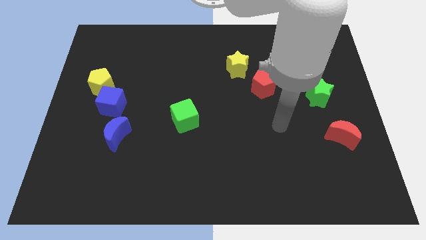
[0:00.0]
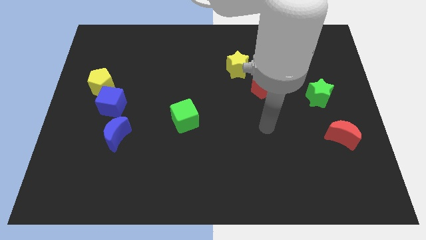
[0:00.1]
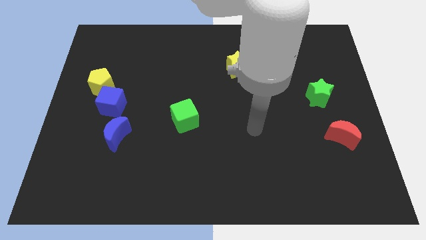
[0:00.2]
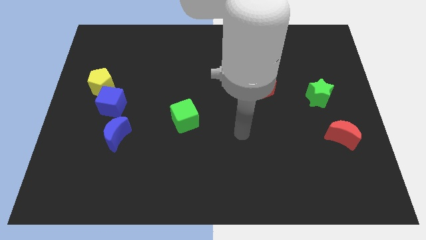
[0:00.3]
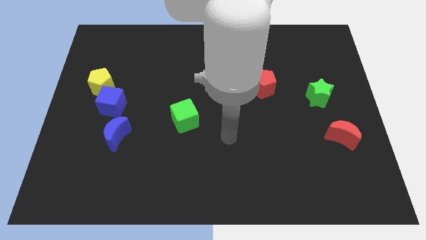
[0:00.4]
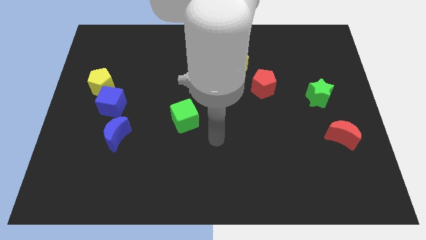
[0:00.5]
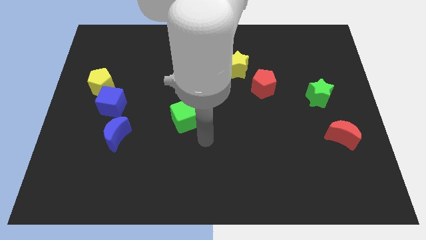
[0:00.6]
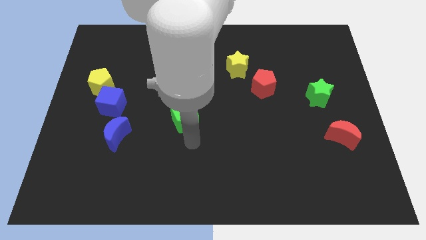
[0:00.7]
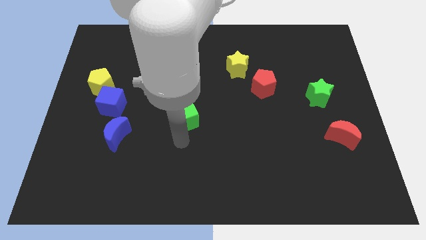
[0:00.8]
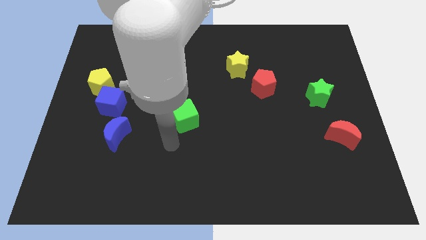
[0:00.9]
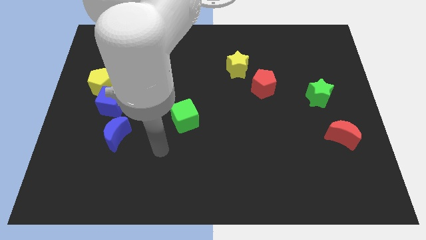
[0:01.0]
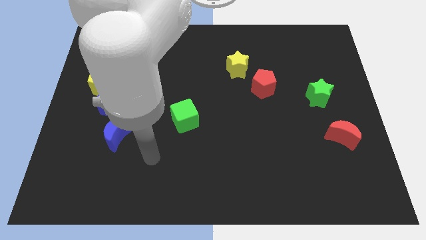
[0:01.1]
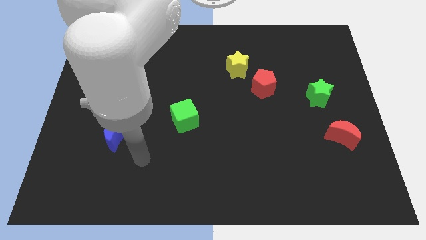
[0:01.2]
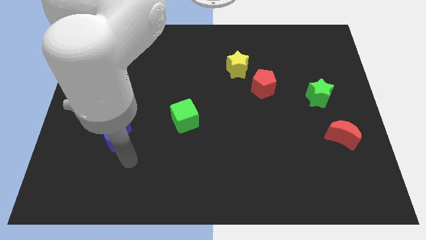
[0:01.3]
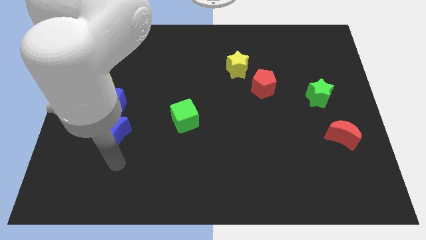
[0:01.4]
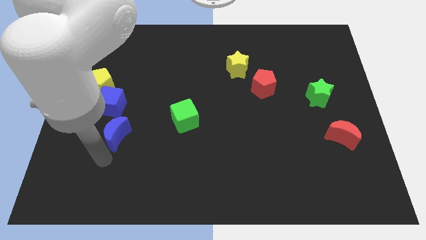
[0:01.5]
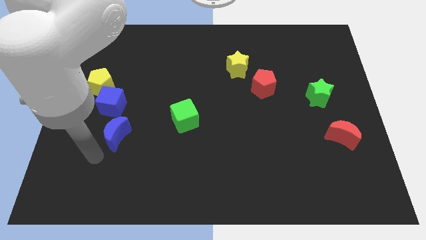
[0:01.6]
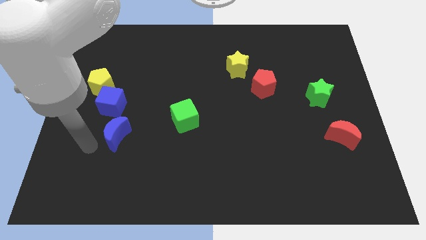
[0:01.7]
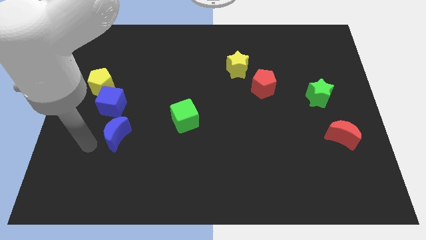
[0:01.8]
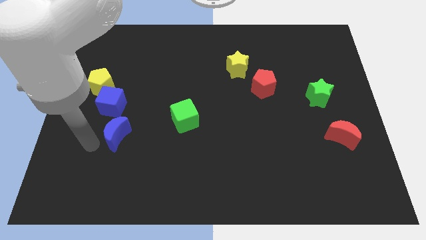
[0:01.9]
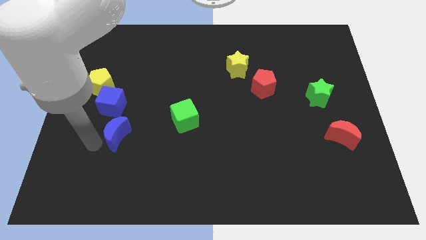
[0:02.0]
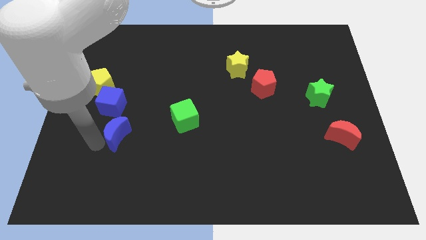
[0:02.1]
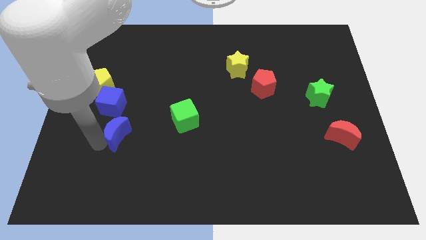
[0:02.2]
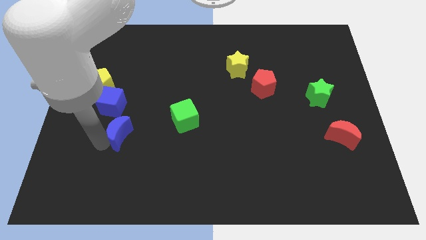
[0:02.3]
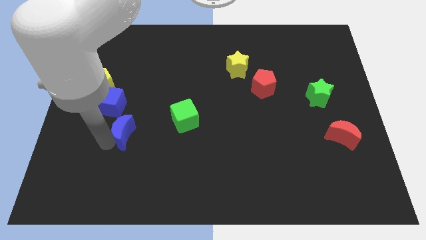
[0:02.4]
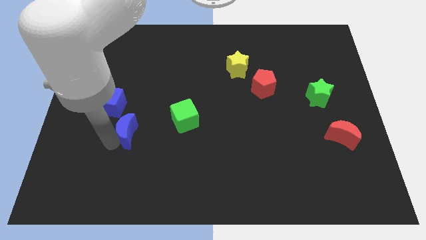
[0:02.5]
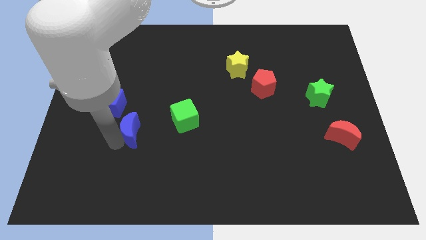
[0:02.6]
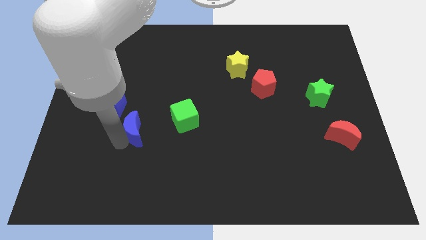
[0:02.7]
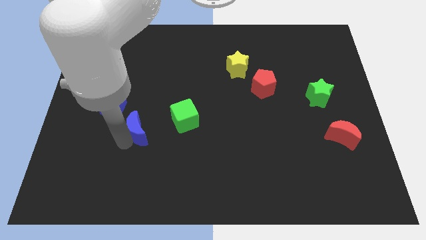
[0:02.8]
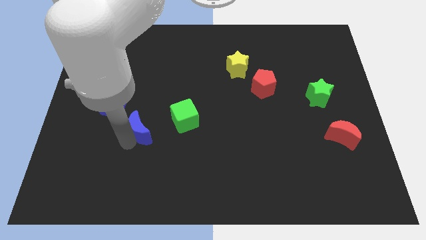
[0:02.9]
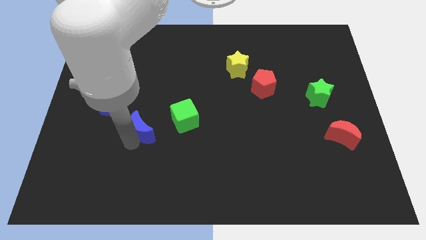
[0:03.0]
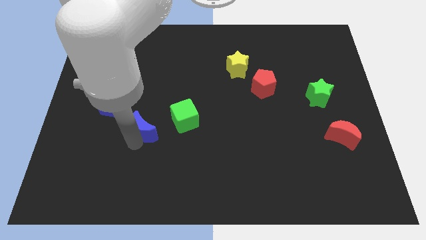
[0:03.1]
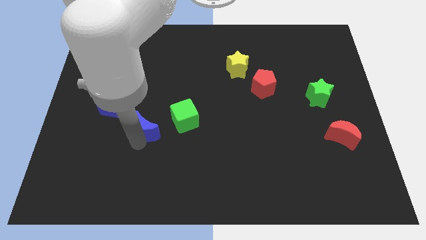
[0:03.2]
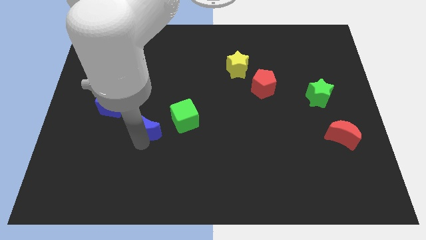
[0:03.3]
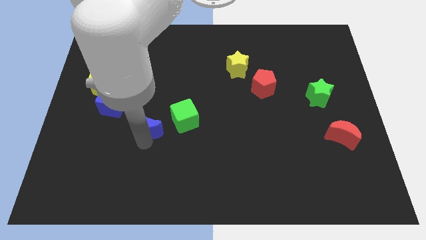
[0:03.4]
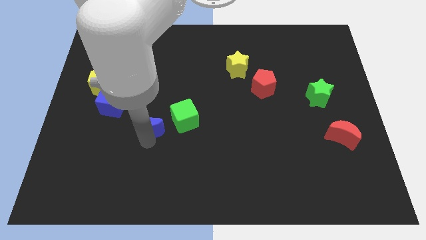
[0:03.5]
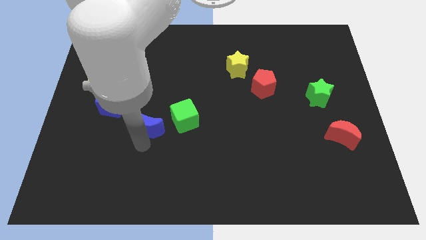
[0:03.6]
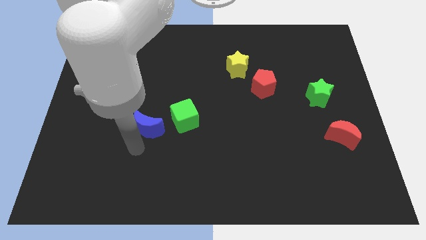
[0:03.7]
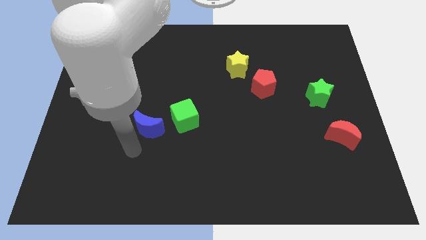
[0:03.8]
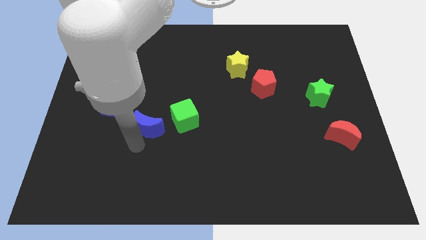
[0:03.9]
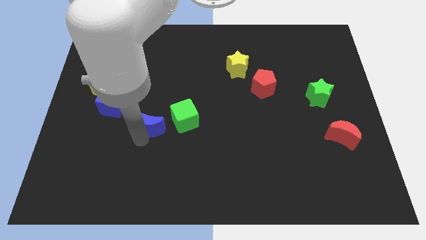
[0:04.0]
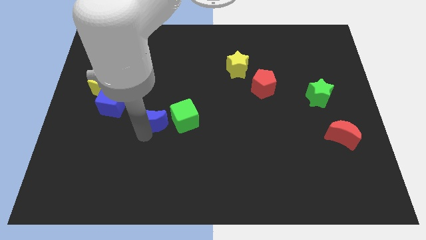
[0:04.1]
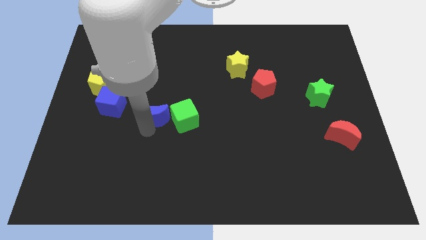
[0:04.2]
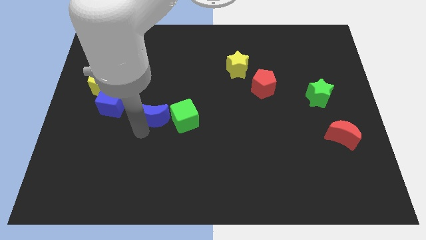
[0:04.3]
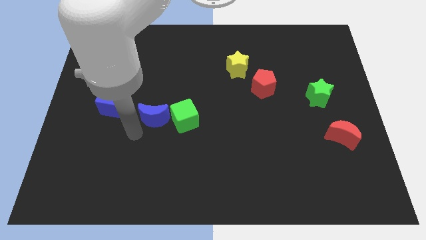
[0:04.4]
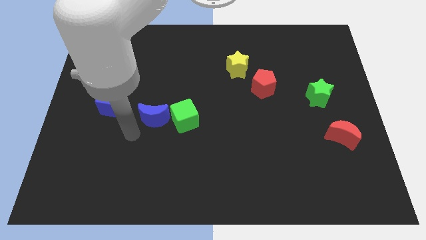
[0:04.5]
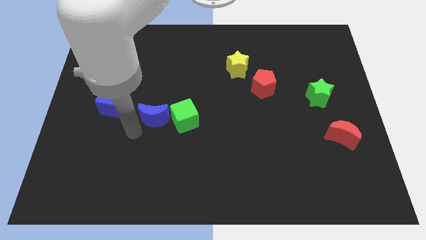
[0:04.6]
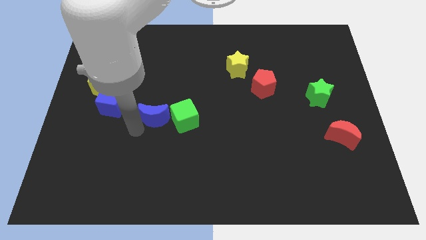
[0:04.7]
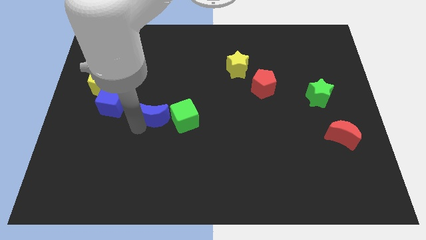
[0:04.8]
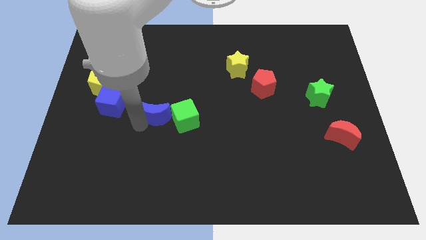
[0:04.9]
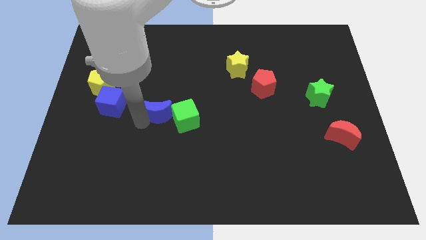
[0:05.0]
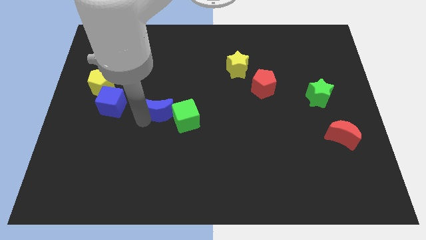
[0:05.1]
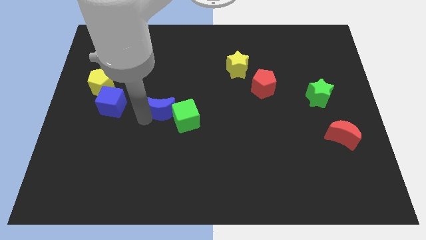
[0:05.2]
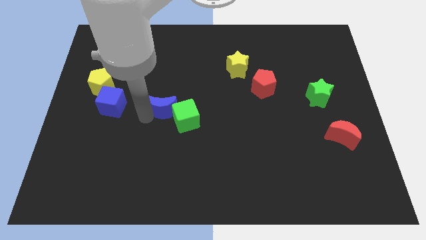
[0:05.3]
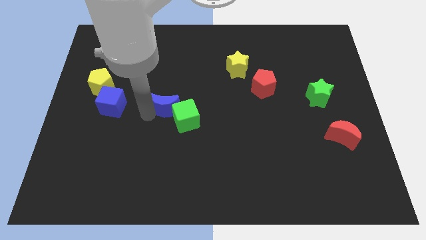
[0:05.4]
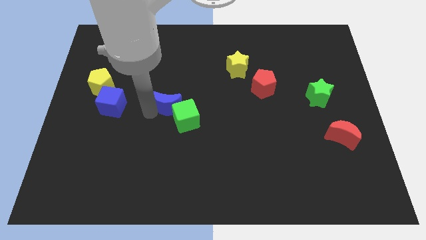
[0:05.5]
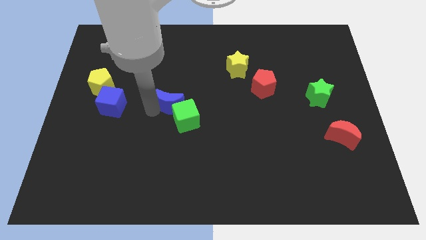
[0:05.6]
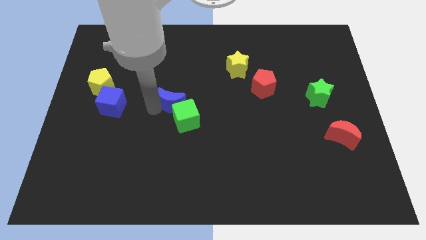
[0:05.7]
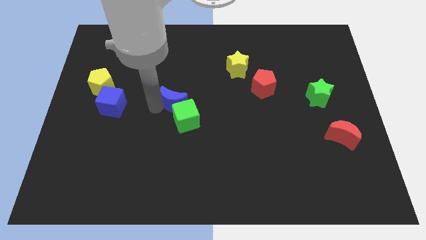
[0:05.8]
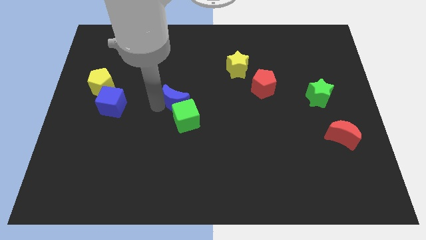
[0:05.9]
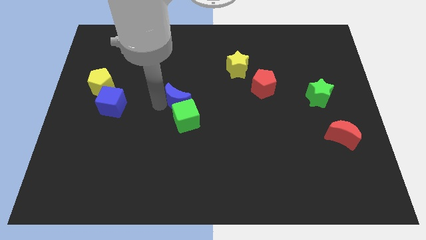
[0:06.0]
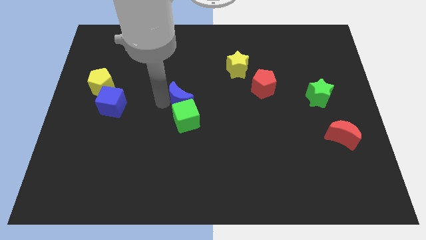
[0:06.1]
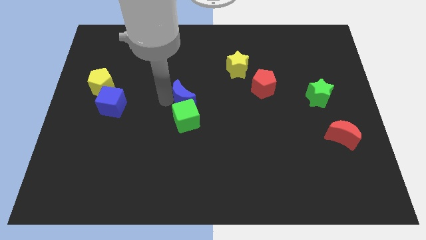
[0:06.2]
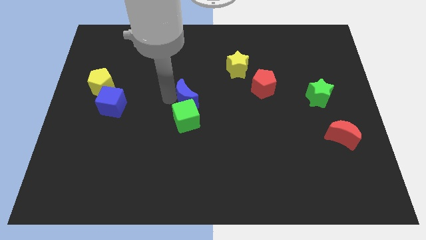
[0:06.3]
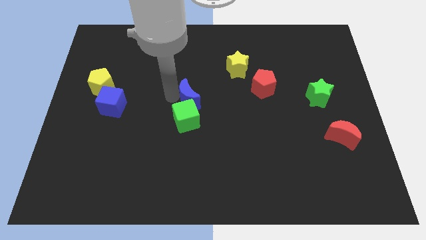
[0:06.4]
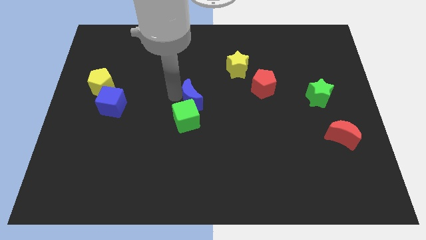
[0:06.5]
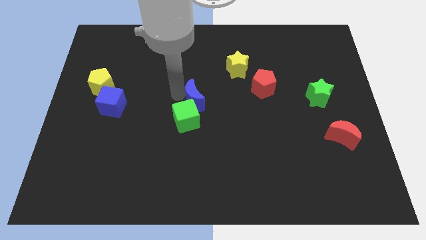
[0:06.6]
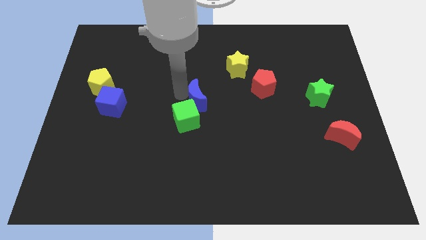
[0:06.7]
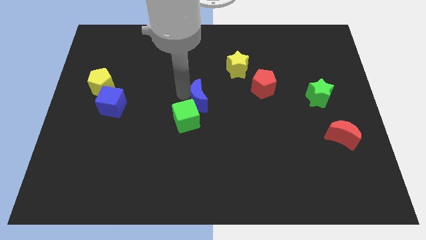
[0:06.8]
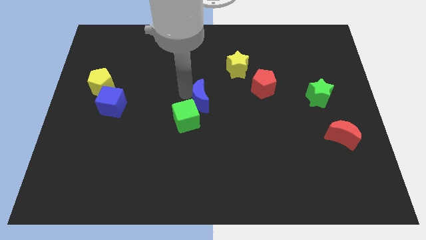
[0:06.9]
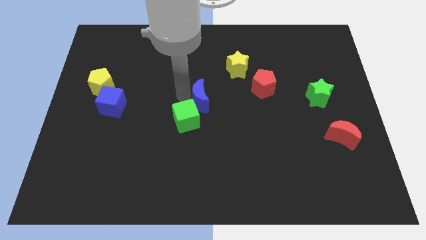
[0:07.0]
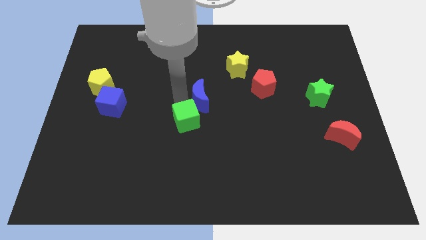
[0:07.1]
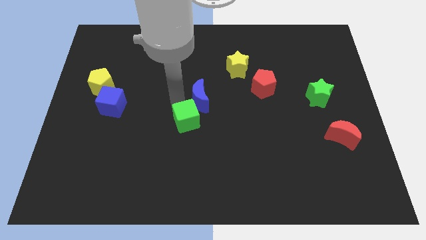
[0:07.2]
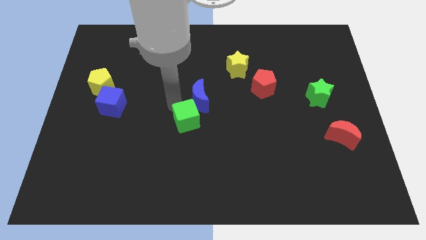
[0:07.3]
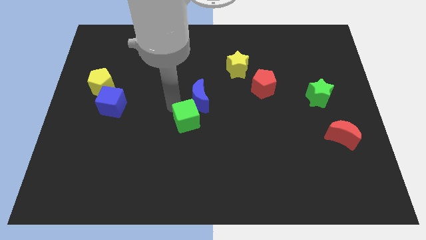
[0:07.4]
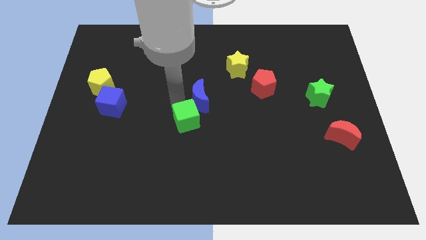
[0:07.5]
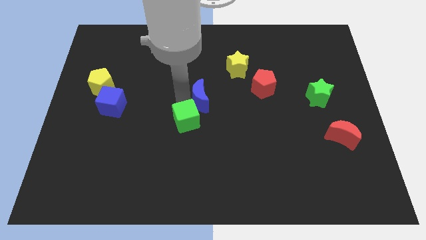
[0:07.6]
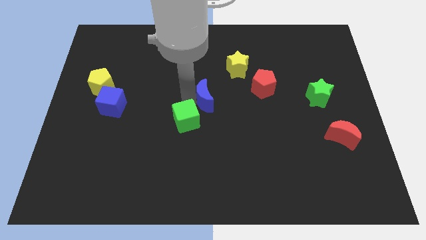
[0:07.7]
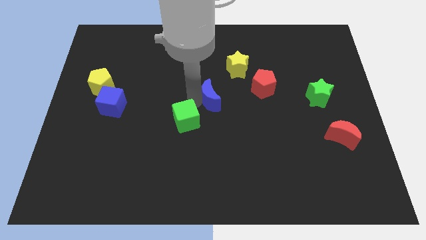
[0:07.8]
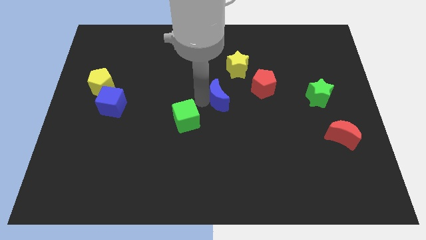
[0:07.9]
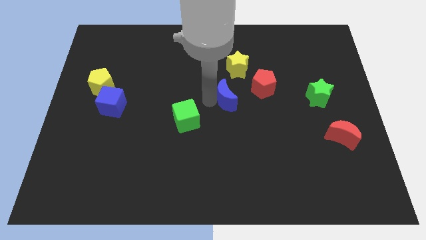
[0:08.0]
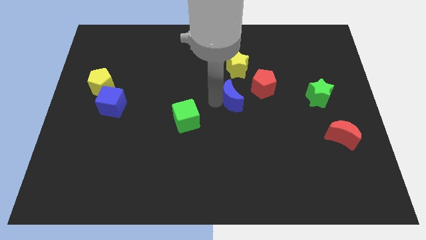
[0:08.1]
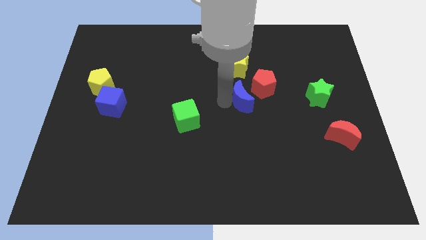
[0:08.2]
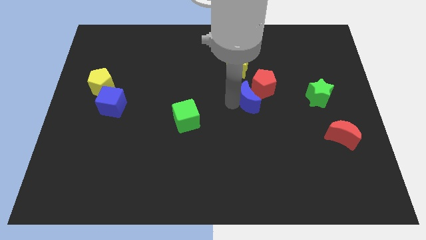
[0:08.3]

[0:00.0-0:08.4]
move the blue moon close to the red pentagon
